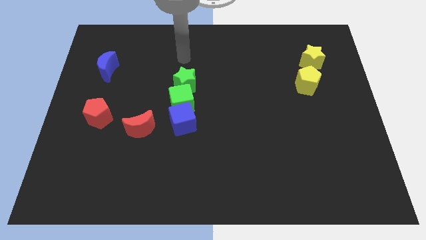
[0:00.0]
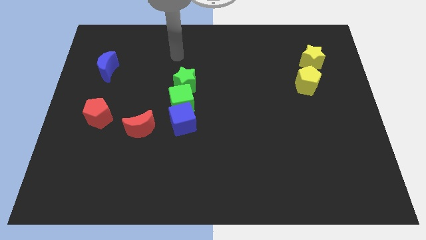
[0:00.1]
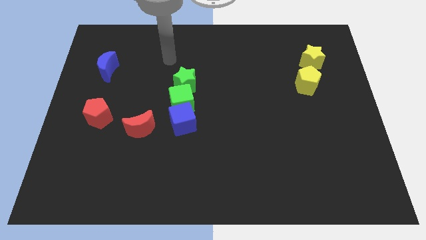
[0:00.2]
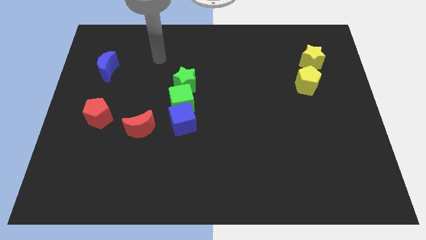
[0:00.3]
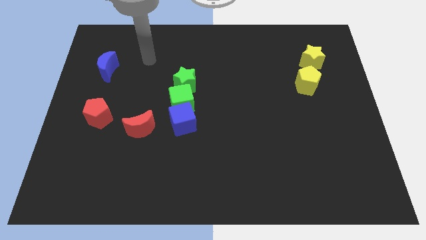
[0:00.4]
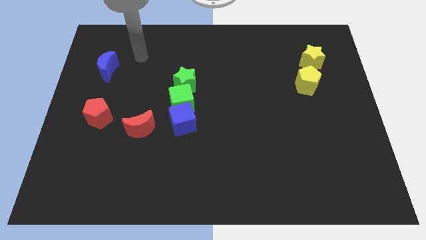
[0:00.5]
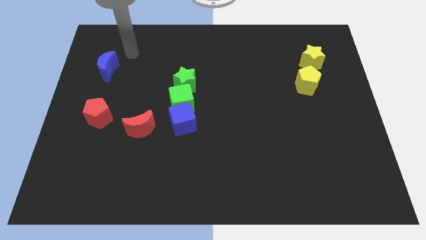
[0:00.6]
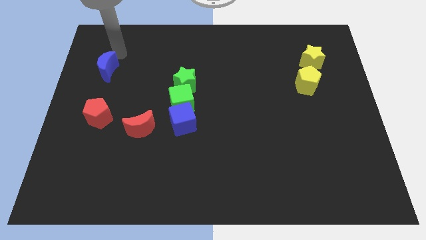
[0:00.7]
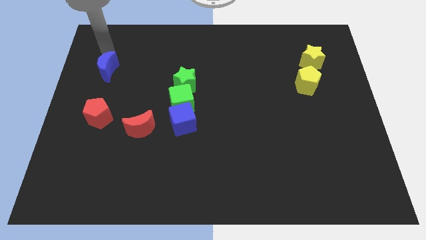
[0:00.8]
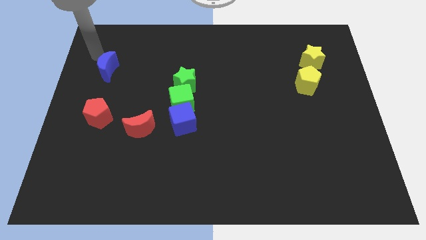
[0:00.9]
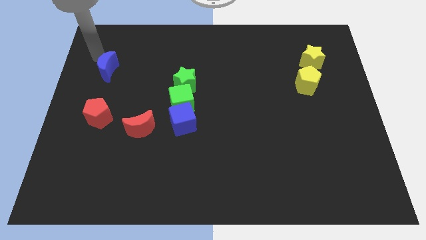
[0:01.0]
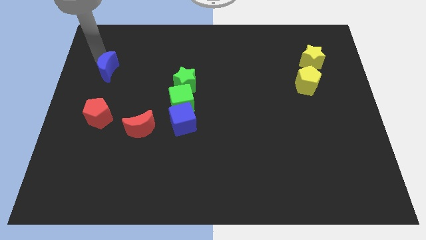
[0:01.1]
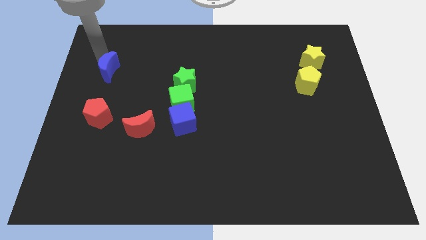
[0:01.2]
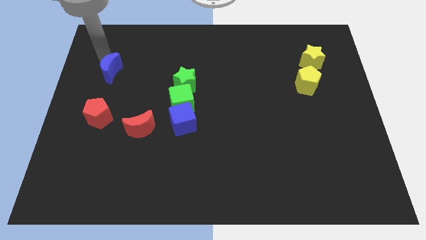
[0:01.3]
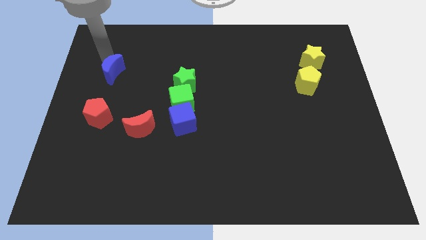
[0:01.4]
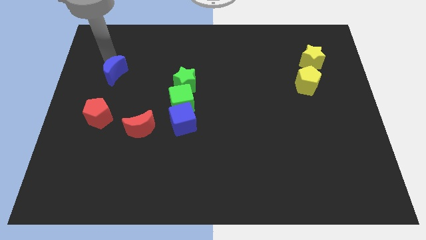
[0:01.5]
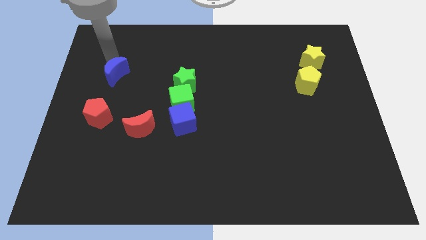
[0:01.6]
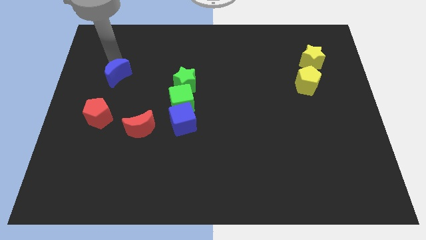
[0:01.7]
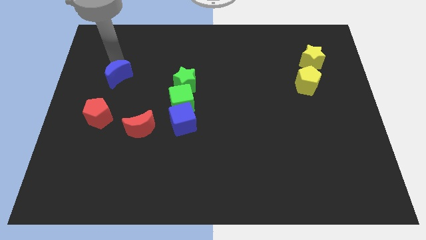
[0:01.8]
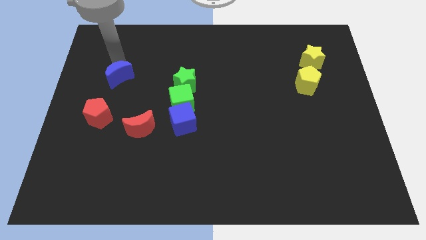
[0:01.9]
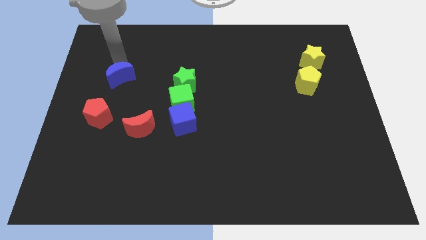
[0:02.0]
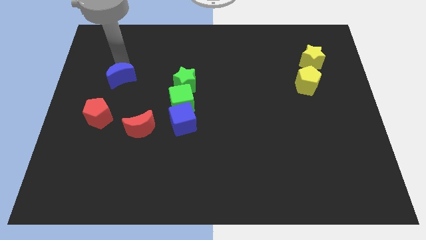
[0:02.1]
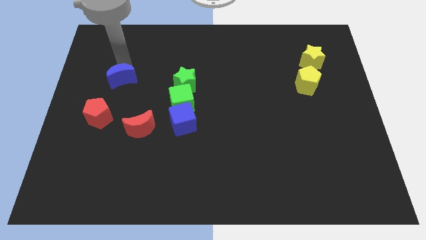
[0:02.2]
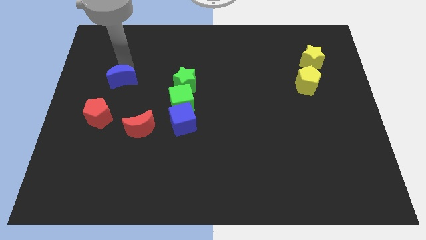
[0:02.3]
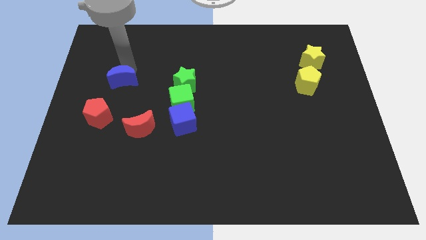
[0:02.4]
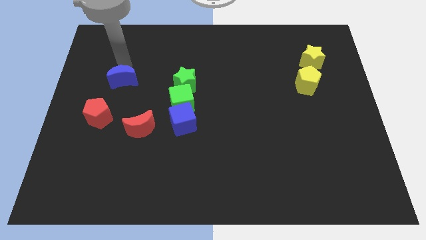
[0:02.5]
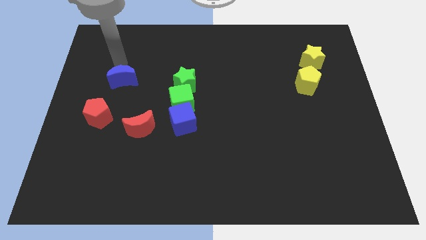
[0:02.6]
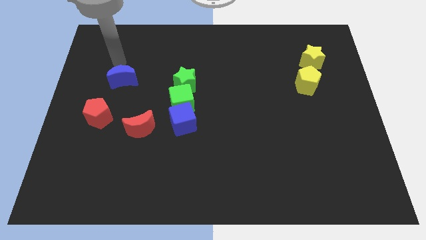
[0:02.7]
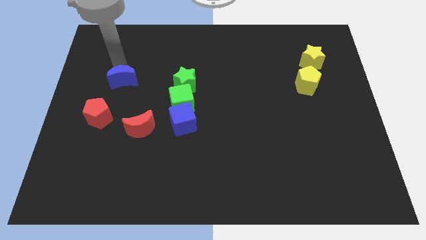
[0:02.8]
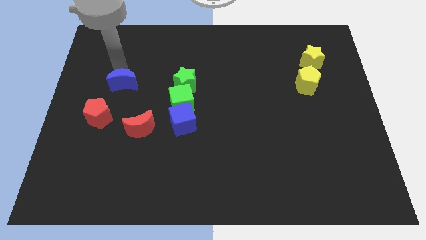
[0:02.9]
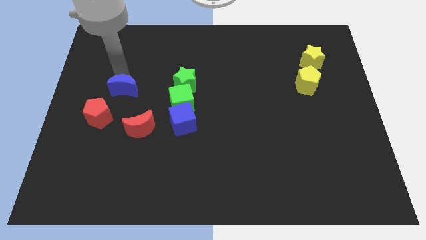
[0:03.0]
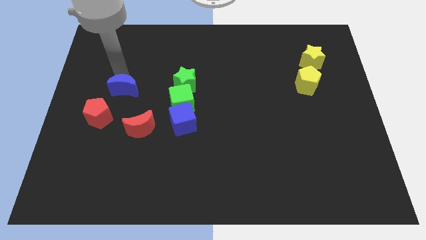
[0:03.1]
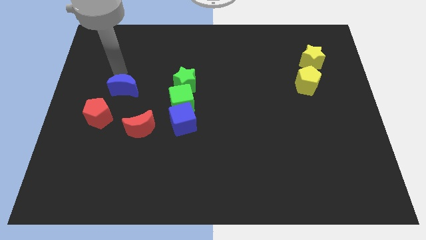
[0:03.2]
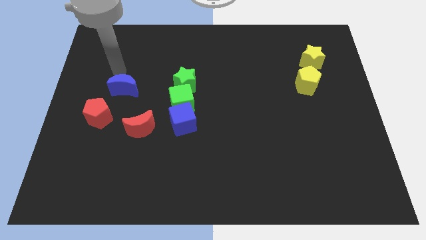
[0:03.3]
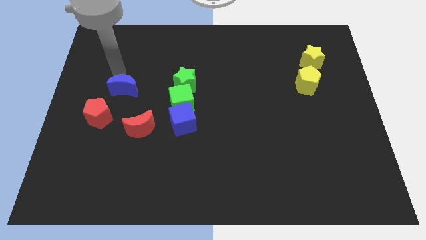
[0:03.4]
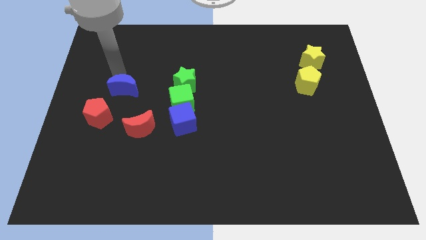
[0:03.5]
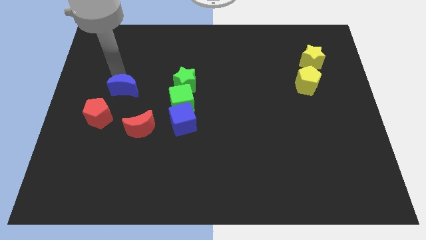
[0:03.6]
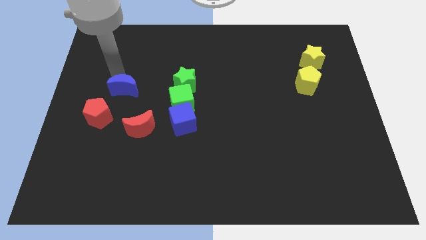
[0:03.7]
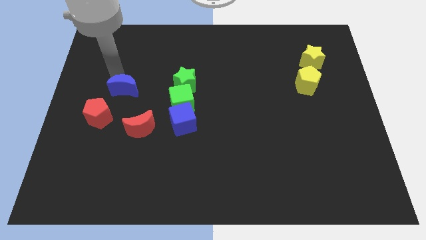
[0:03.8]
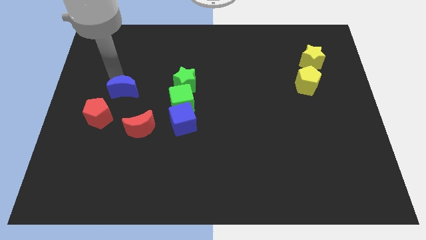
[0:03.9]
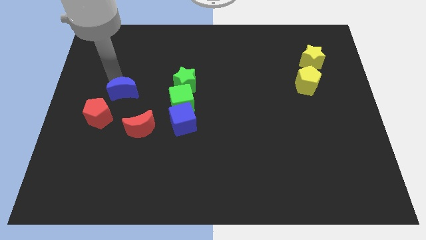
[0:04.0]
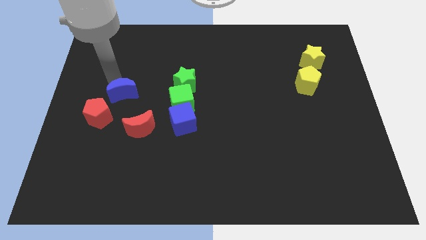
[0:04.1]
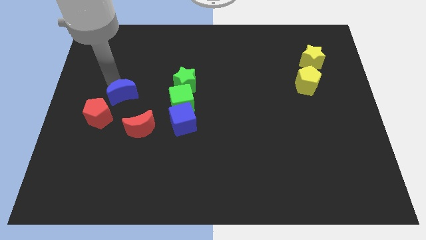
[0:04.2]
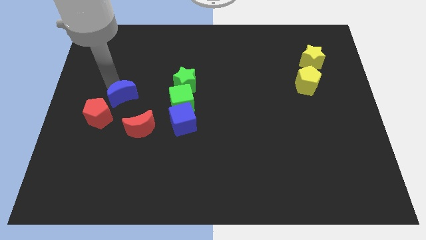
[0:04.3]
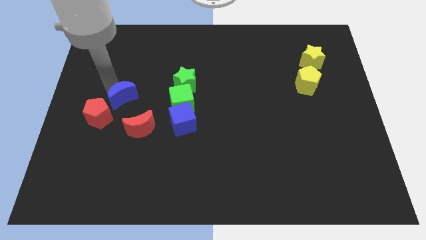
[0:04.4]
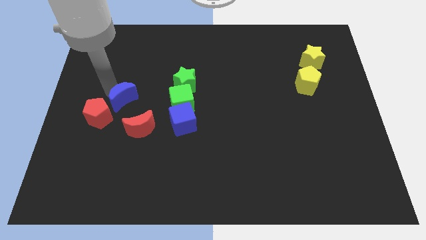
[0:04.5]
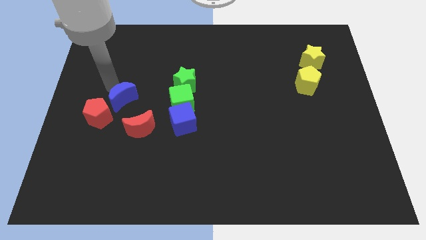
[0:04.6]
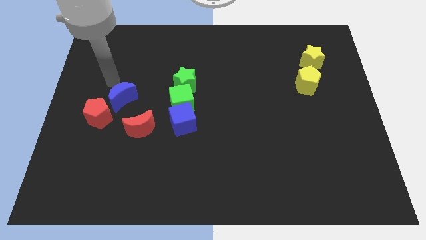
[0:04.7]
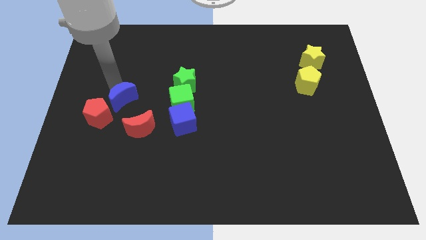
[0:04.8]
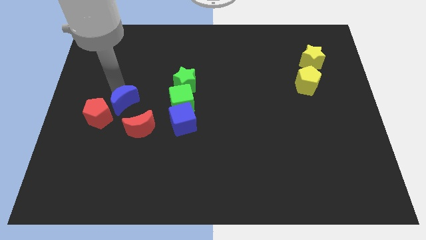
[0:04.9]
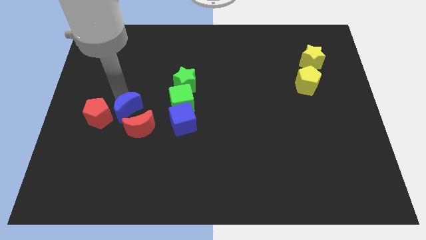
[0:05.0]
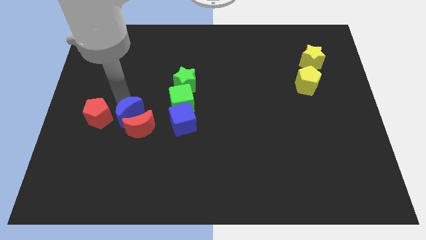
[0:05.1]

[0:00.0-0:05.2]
put the blue moon close to the red moon

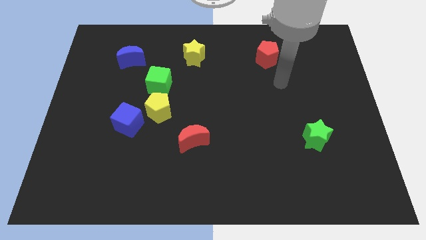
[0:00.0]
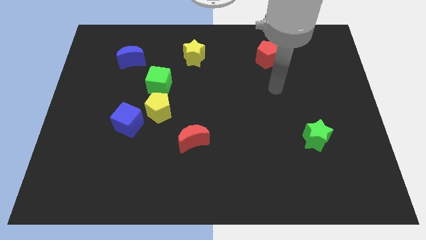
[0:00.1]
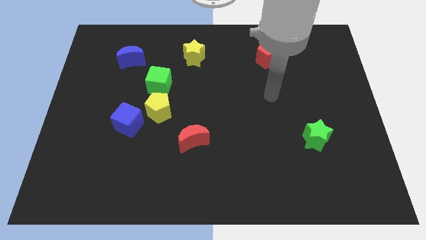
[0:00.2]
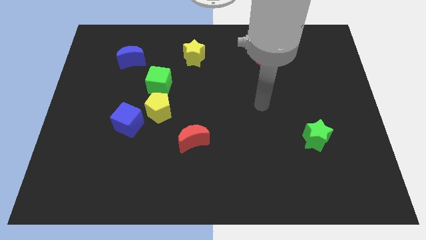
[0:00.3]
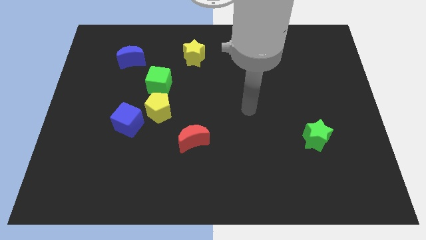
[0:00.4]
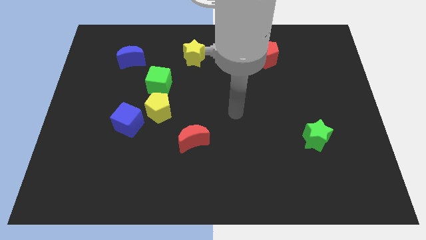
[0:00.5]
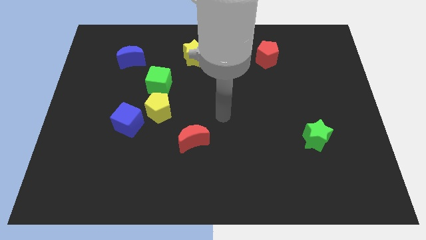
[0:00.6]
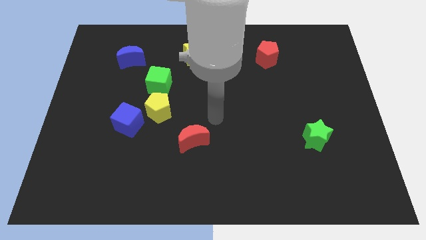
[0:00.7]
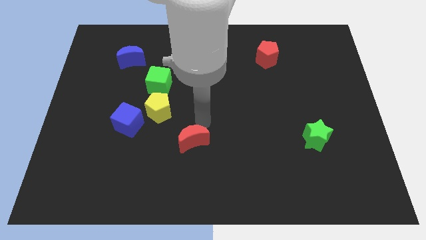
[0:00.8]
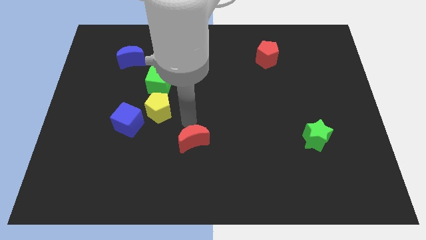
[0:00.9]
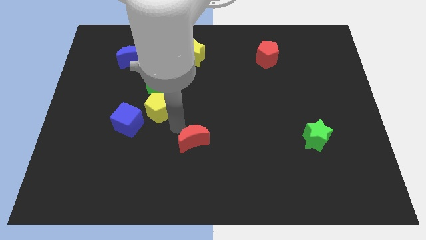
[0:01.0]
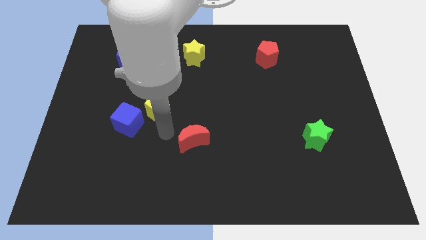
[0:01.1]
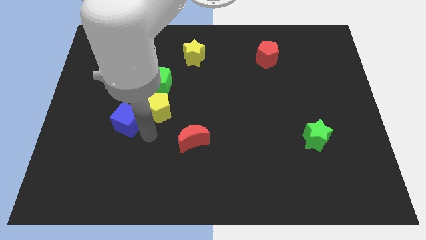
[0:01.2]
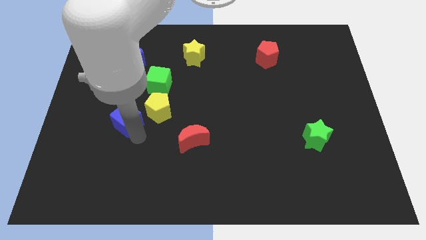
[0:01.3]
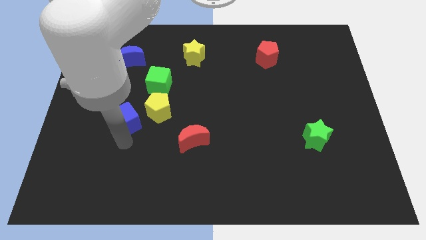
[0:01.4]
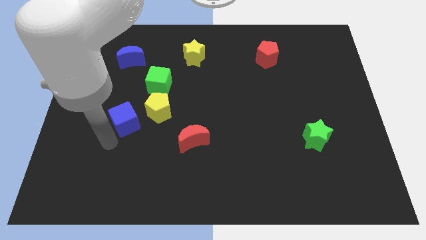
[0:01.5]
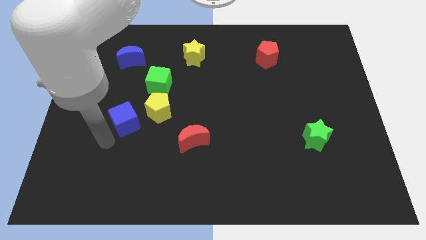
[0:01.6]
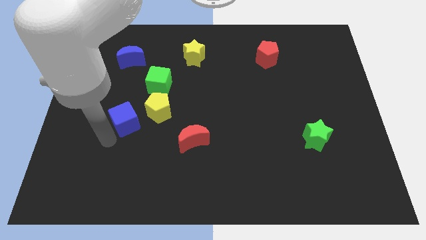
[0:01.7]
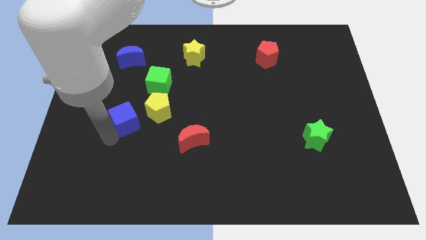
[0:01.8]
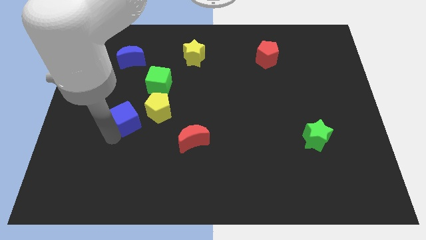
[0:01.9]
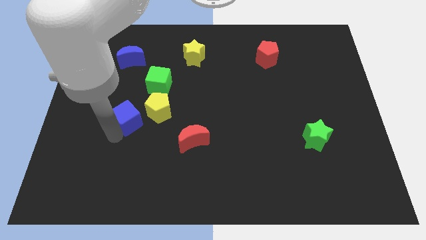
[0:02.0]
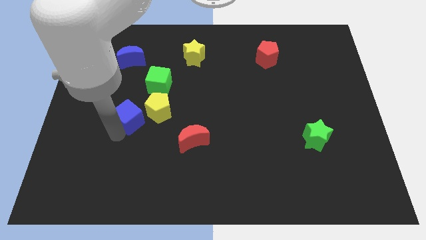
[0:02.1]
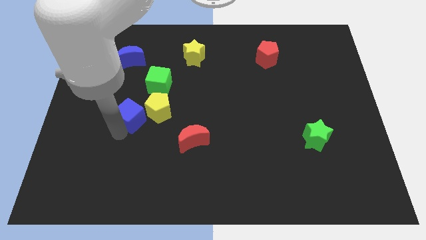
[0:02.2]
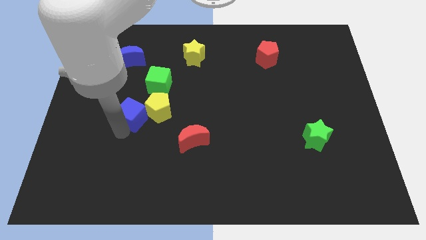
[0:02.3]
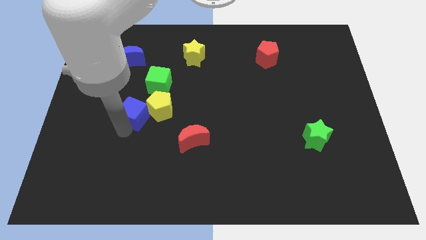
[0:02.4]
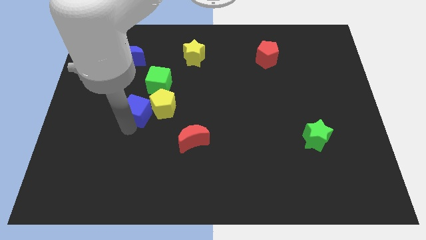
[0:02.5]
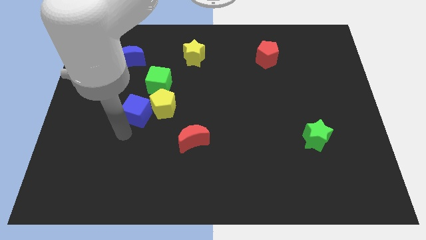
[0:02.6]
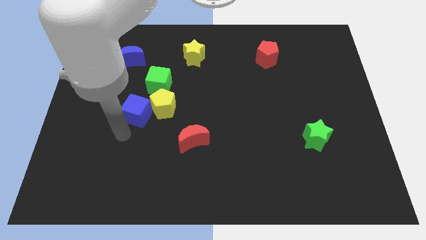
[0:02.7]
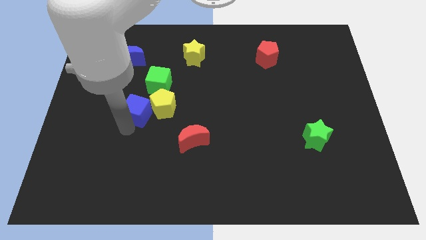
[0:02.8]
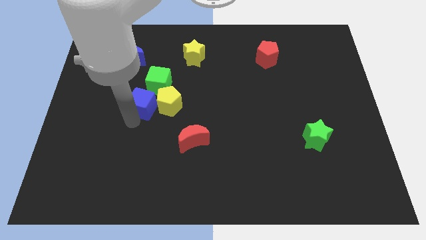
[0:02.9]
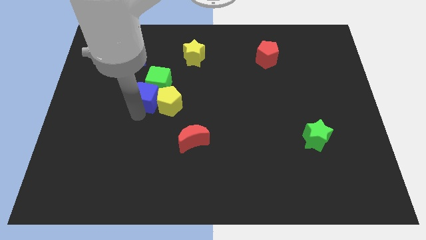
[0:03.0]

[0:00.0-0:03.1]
put the blue cube towards the green cube
